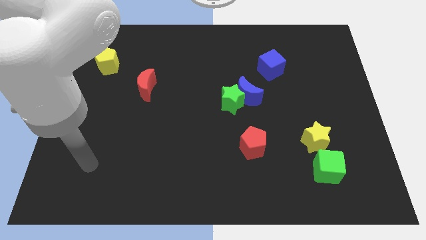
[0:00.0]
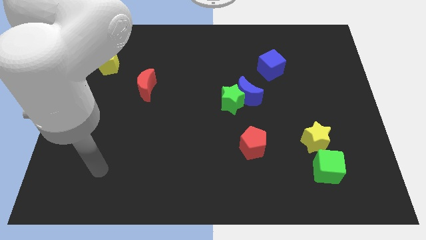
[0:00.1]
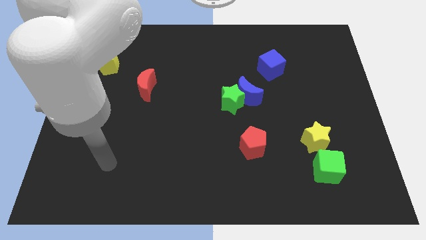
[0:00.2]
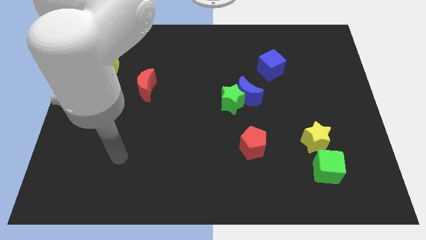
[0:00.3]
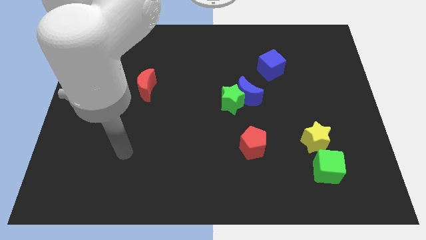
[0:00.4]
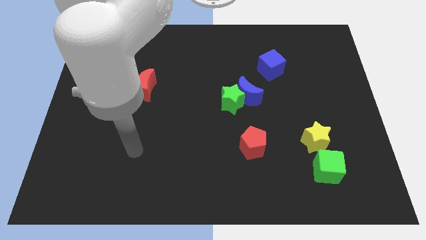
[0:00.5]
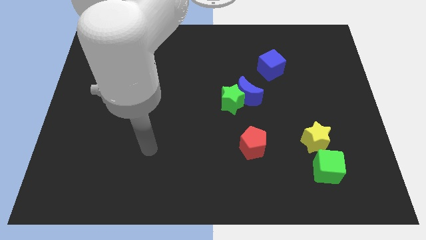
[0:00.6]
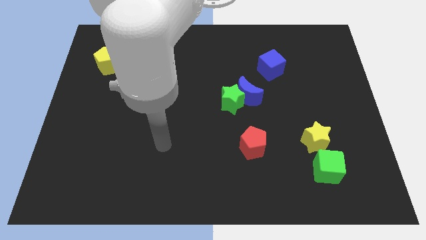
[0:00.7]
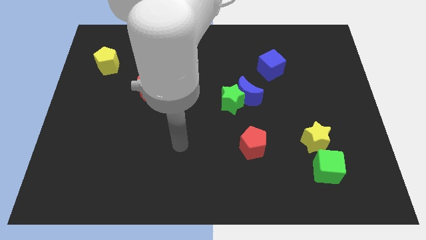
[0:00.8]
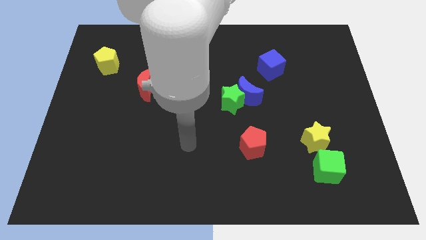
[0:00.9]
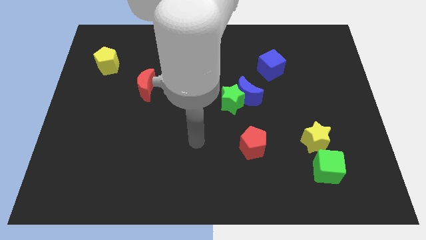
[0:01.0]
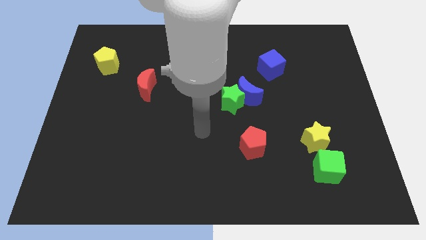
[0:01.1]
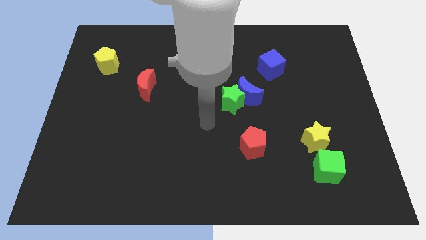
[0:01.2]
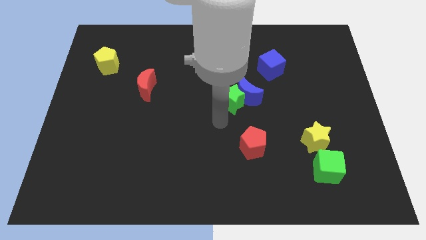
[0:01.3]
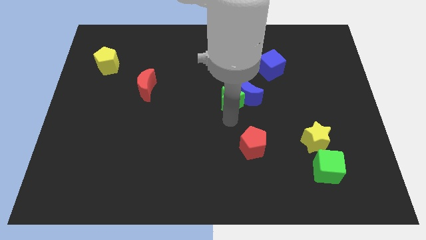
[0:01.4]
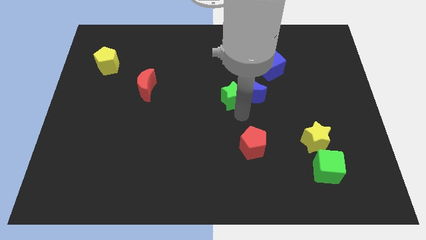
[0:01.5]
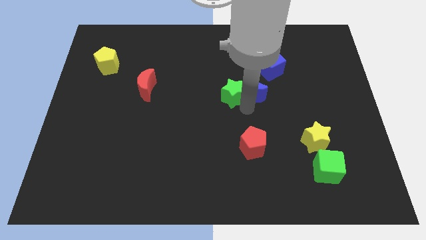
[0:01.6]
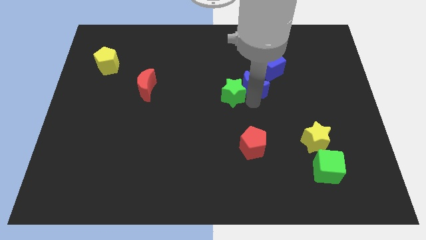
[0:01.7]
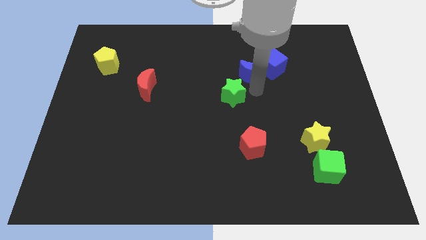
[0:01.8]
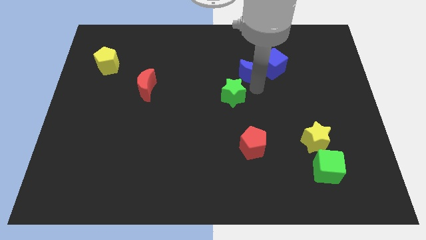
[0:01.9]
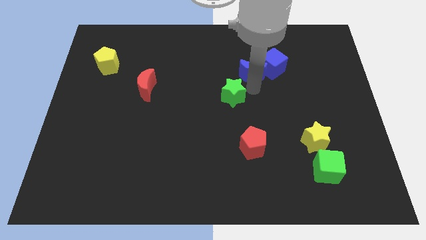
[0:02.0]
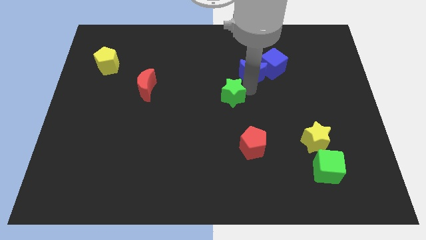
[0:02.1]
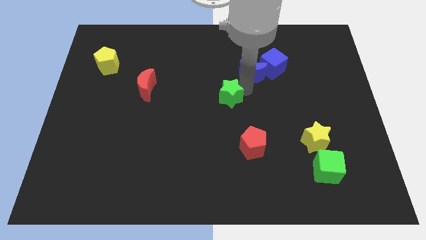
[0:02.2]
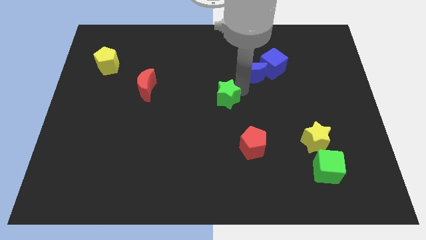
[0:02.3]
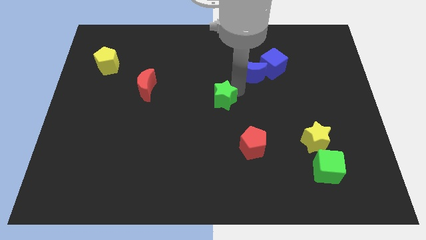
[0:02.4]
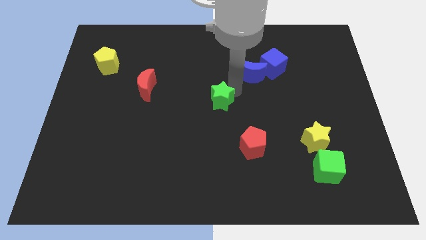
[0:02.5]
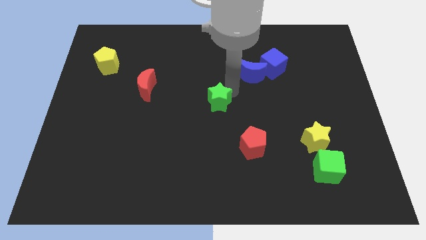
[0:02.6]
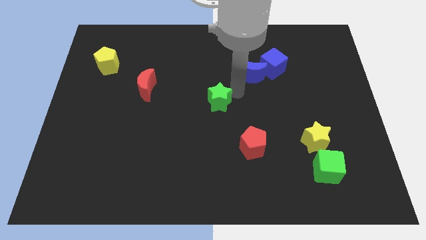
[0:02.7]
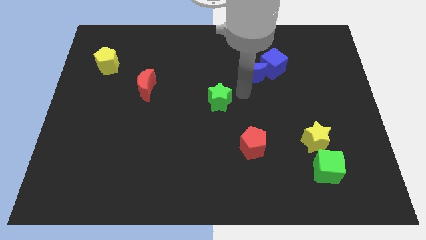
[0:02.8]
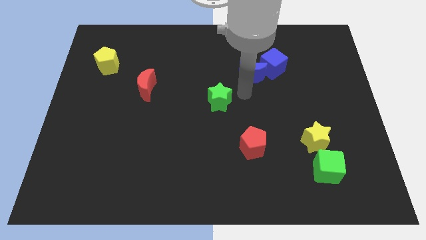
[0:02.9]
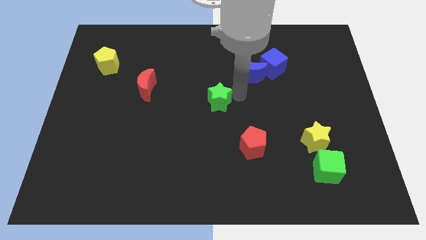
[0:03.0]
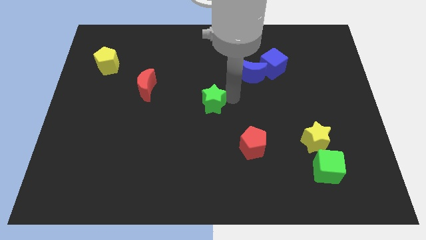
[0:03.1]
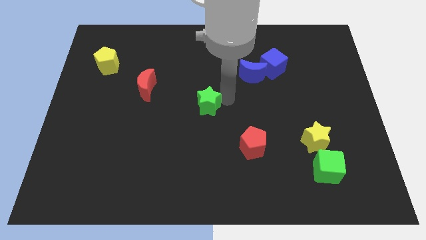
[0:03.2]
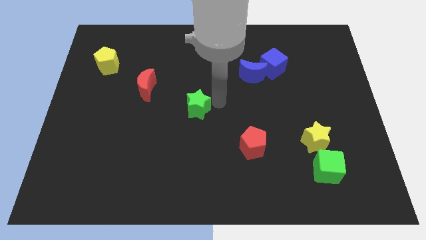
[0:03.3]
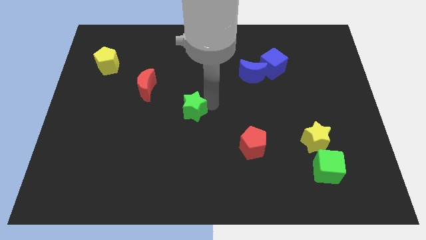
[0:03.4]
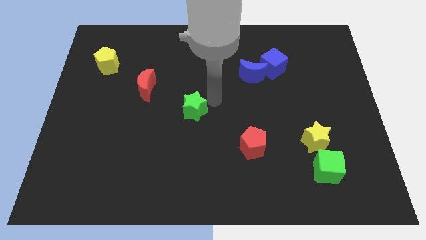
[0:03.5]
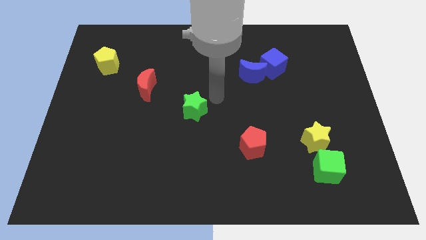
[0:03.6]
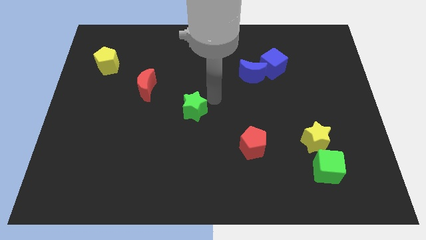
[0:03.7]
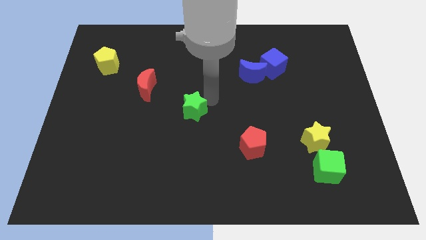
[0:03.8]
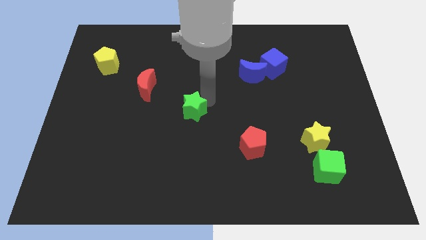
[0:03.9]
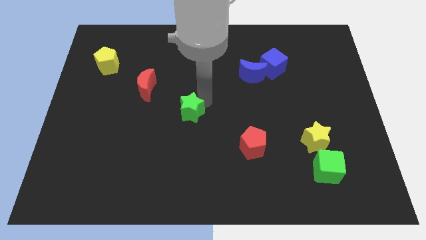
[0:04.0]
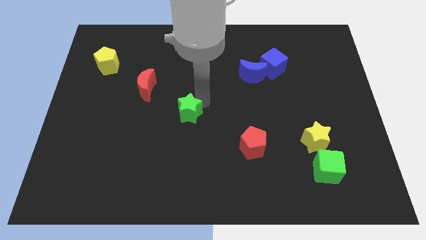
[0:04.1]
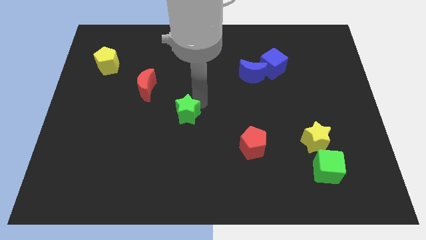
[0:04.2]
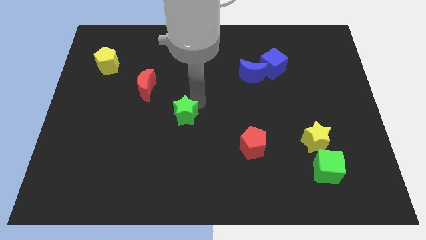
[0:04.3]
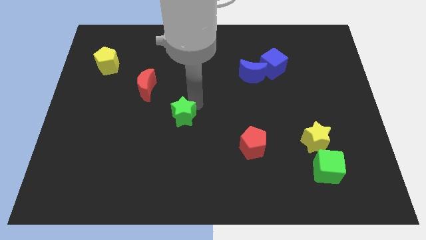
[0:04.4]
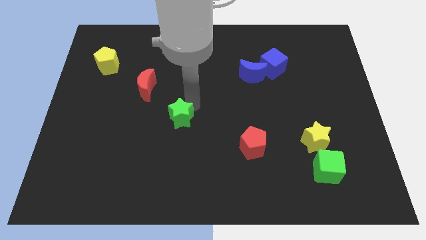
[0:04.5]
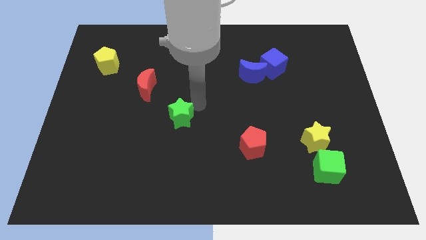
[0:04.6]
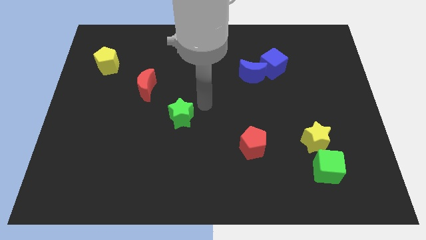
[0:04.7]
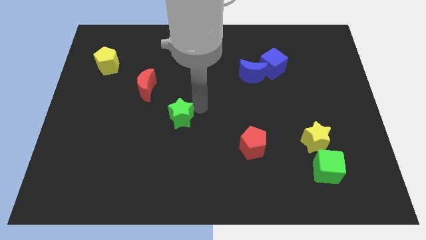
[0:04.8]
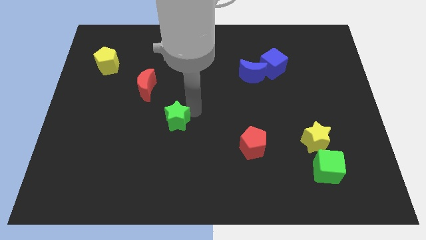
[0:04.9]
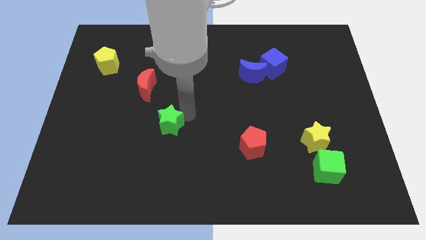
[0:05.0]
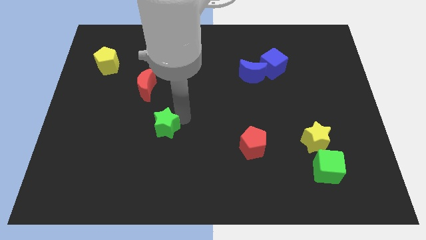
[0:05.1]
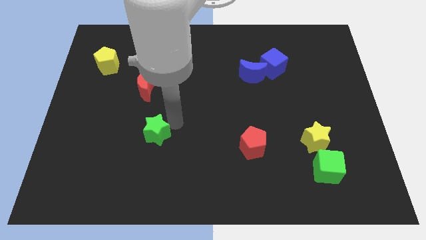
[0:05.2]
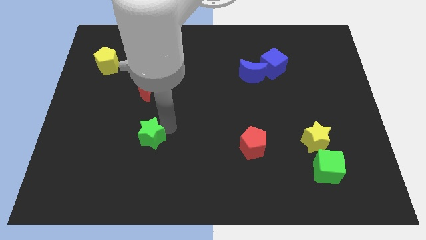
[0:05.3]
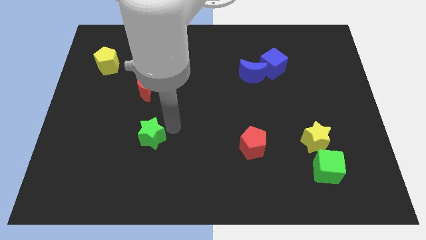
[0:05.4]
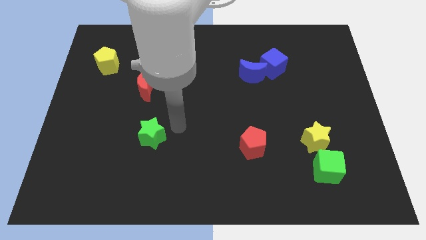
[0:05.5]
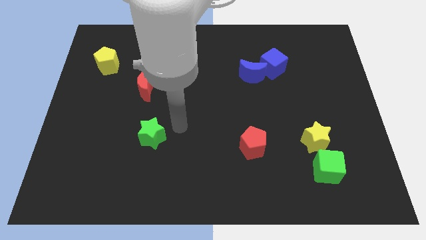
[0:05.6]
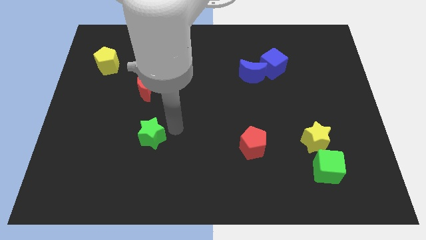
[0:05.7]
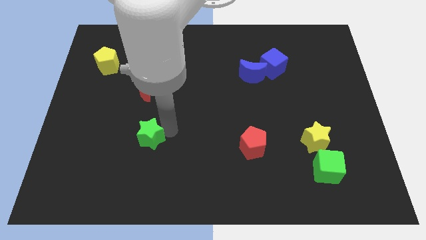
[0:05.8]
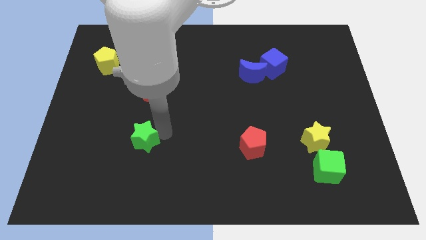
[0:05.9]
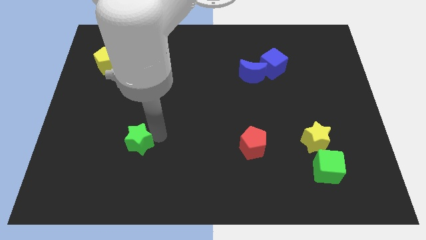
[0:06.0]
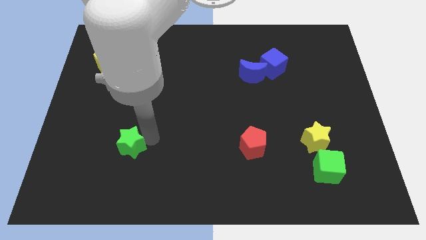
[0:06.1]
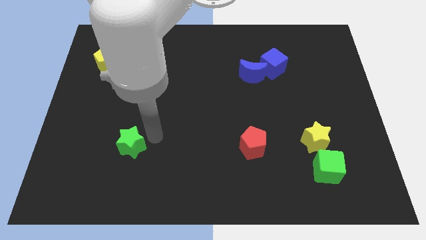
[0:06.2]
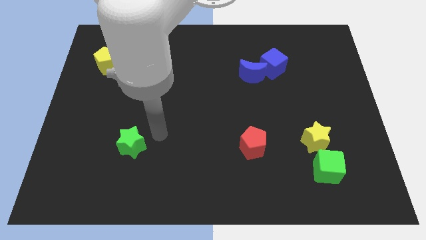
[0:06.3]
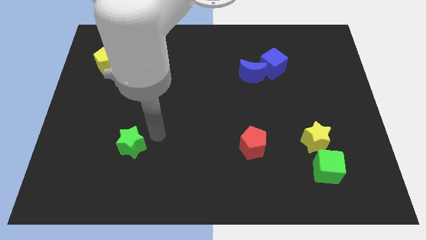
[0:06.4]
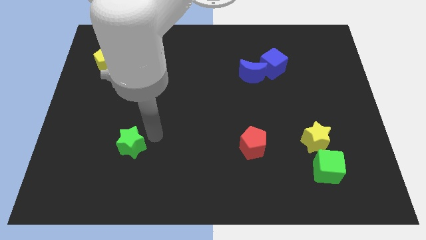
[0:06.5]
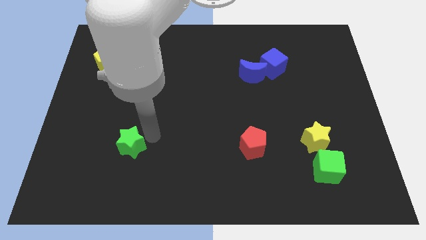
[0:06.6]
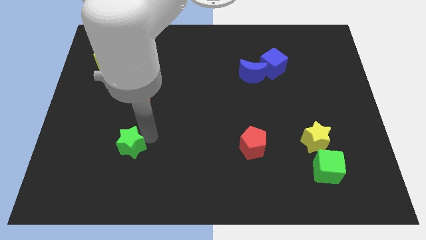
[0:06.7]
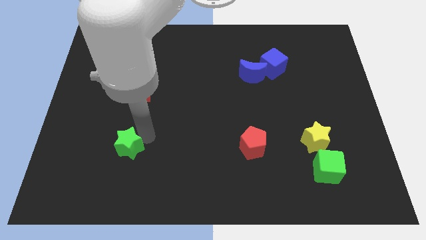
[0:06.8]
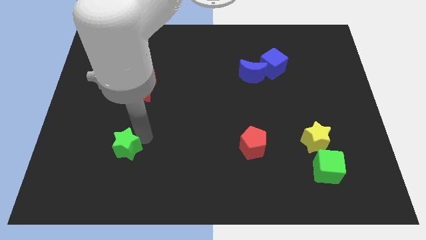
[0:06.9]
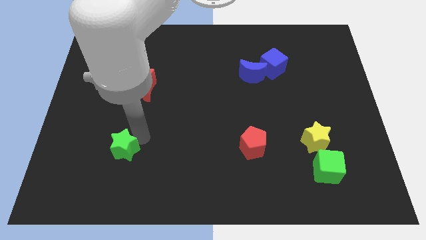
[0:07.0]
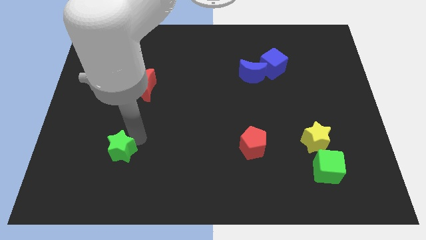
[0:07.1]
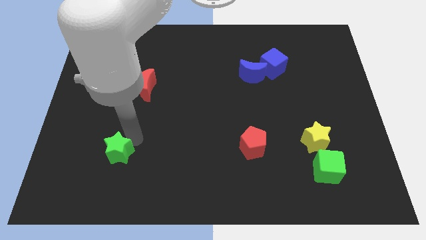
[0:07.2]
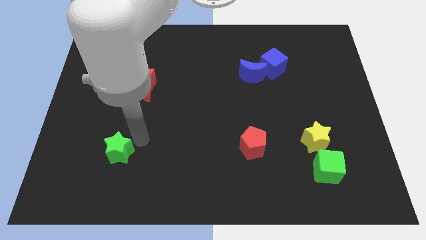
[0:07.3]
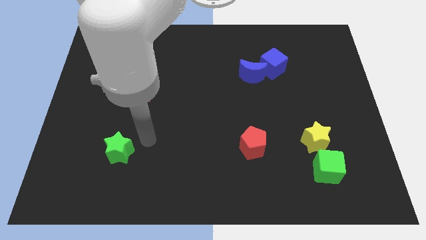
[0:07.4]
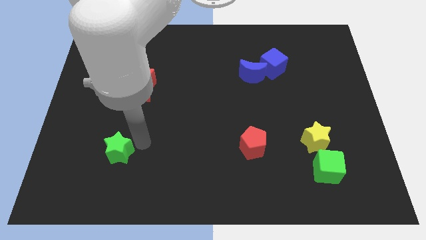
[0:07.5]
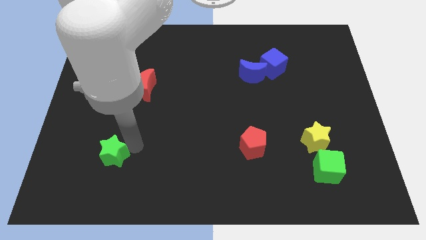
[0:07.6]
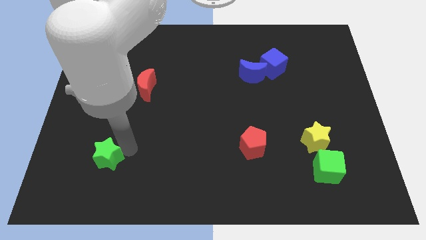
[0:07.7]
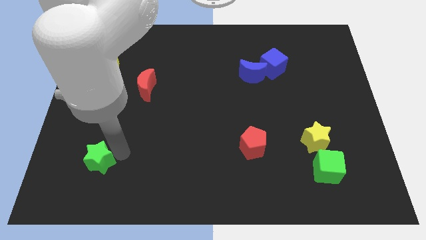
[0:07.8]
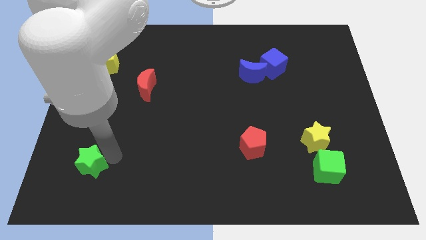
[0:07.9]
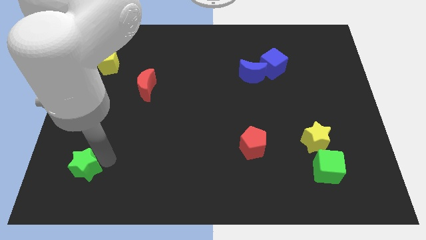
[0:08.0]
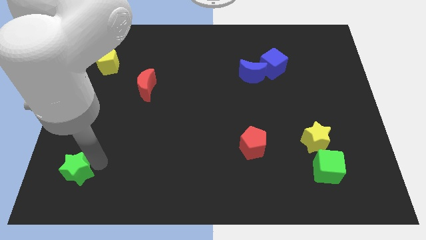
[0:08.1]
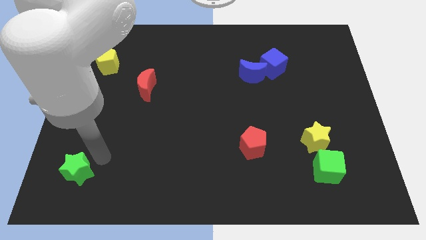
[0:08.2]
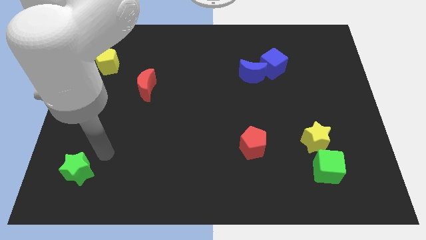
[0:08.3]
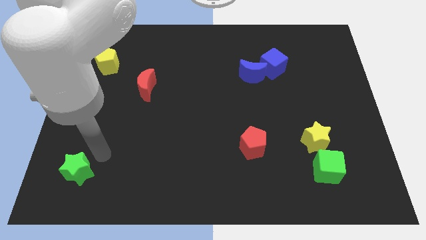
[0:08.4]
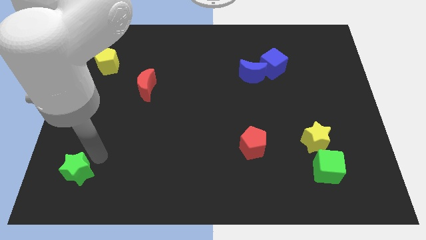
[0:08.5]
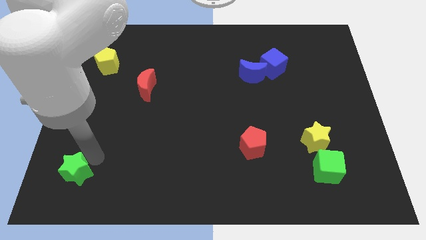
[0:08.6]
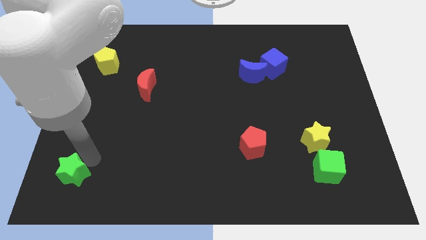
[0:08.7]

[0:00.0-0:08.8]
push the green star to the lower left corner
